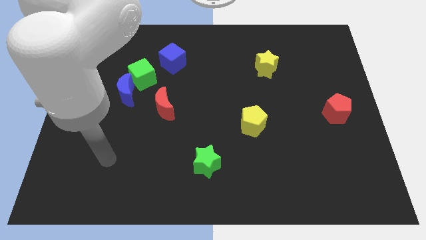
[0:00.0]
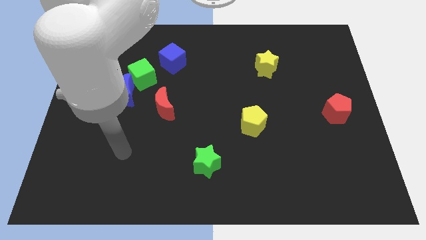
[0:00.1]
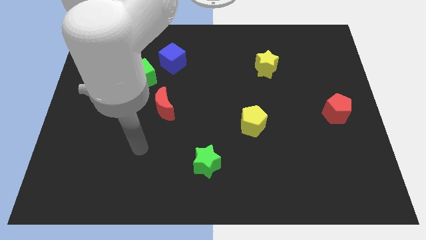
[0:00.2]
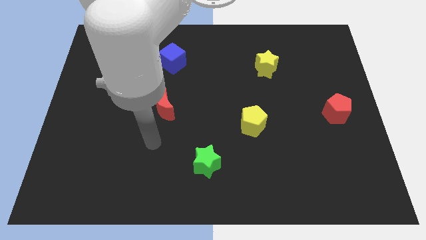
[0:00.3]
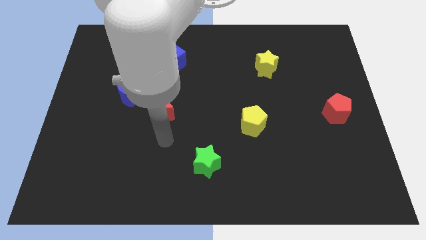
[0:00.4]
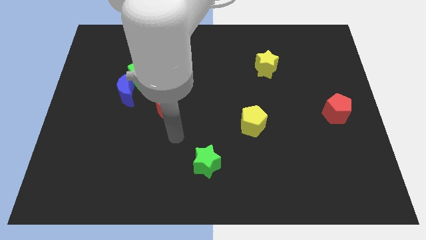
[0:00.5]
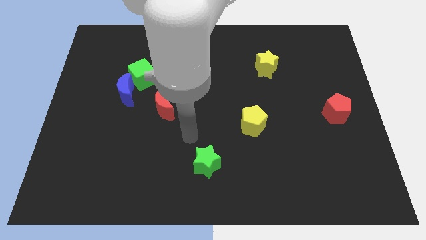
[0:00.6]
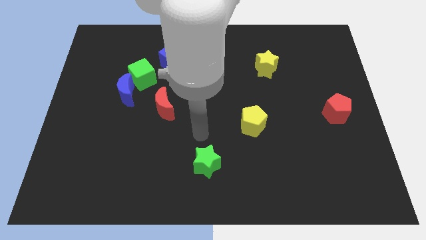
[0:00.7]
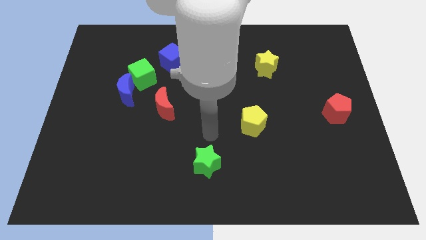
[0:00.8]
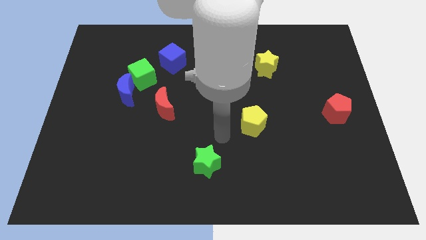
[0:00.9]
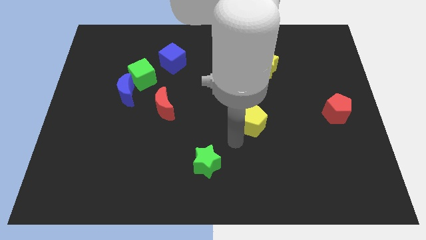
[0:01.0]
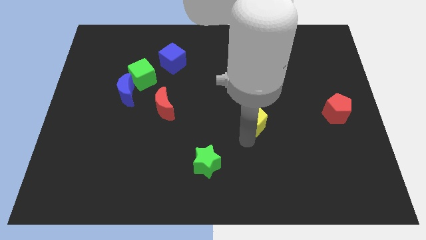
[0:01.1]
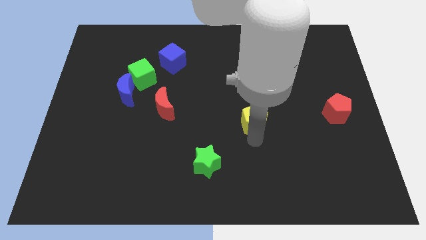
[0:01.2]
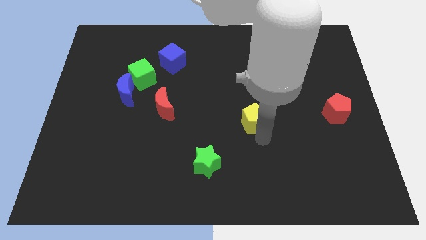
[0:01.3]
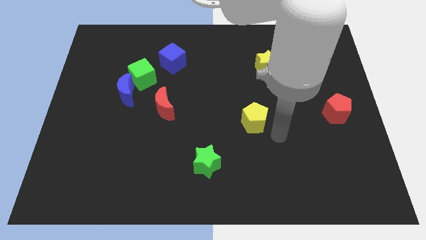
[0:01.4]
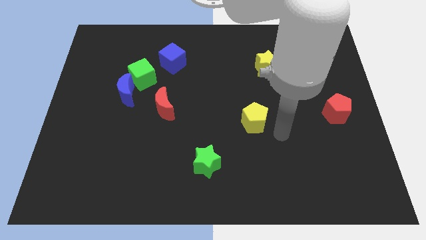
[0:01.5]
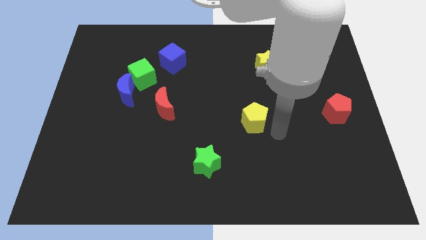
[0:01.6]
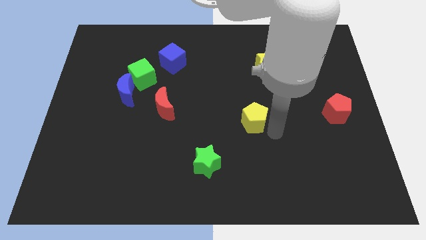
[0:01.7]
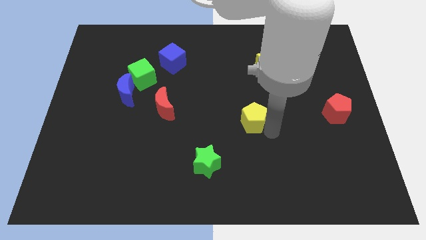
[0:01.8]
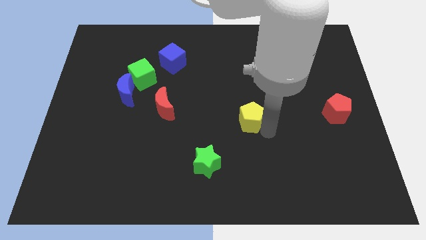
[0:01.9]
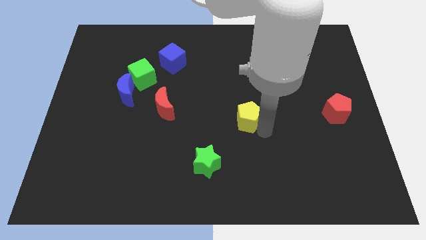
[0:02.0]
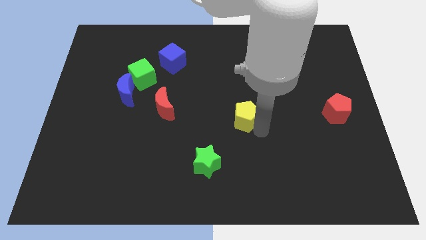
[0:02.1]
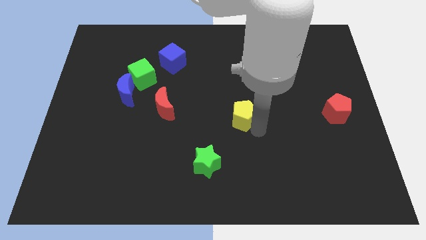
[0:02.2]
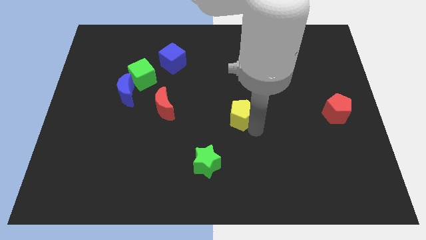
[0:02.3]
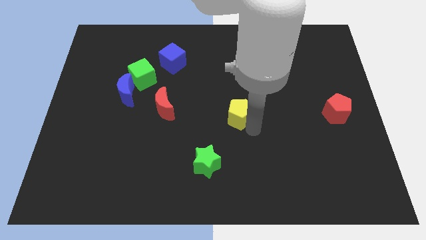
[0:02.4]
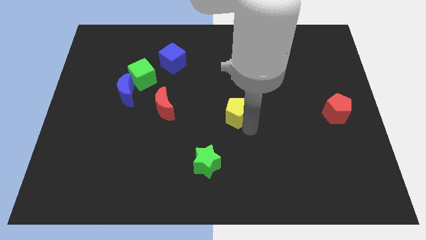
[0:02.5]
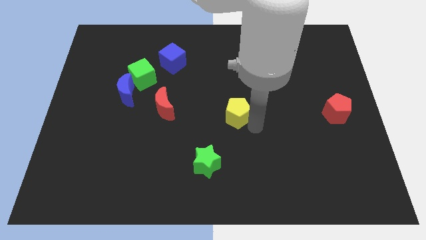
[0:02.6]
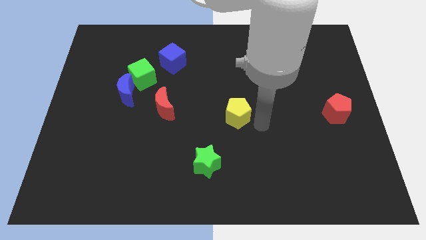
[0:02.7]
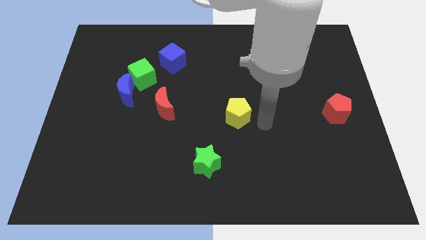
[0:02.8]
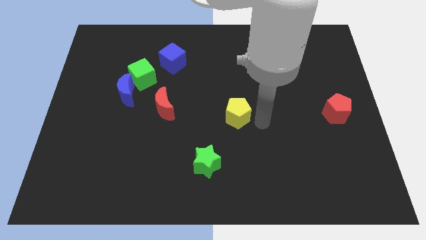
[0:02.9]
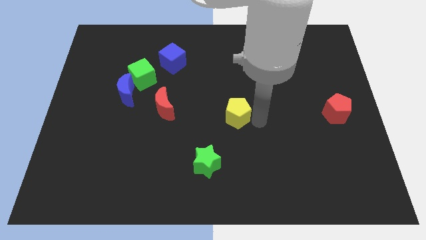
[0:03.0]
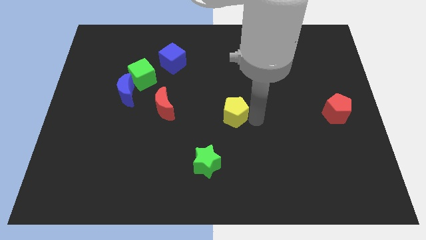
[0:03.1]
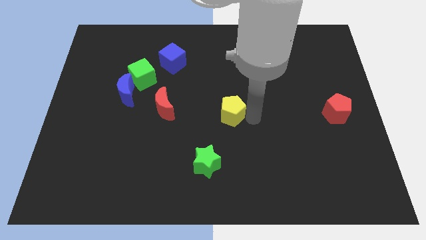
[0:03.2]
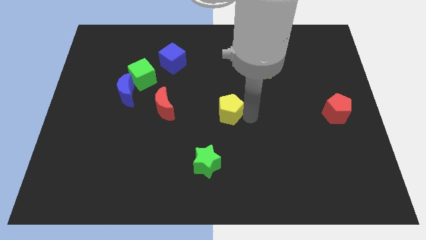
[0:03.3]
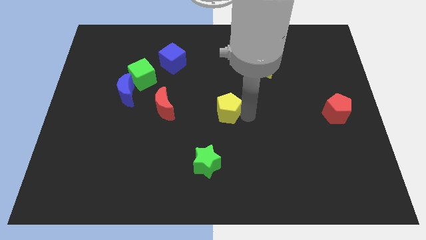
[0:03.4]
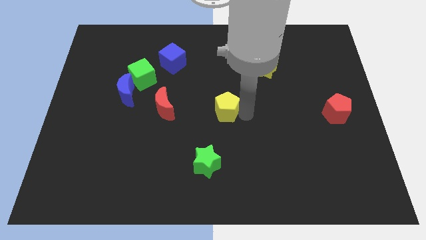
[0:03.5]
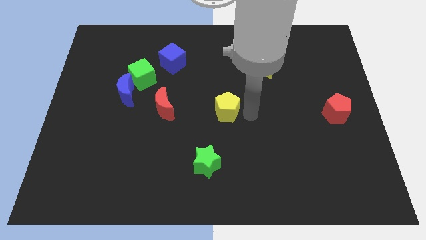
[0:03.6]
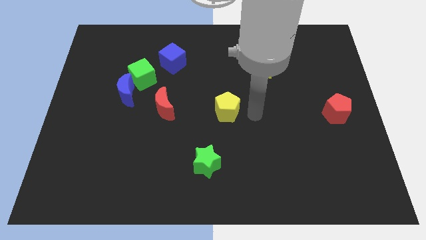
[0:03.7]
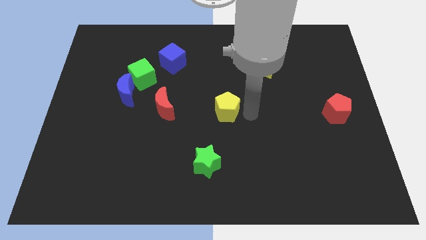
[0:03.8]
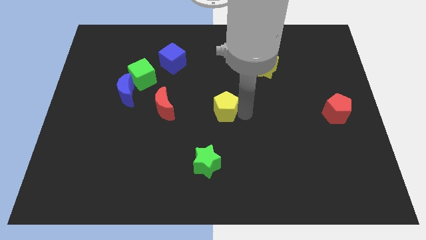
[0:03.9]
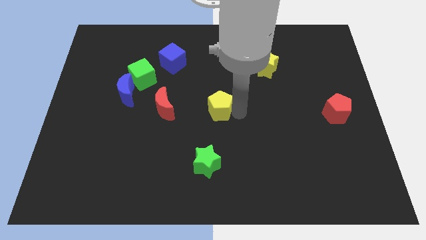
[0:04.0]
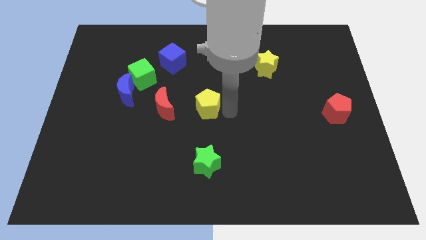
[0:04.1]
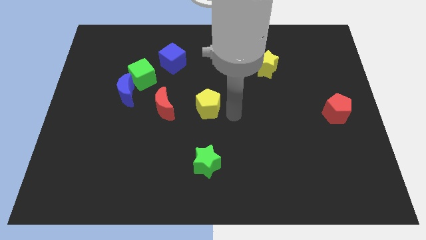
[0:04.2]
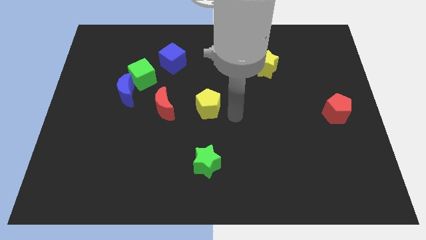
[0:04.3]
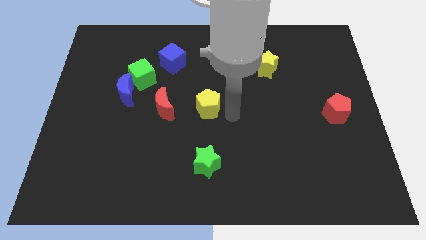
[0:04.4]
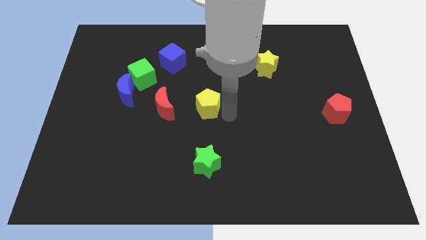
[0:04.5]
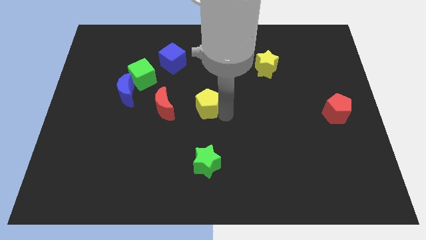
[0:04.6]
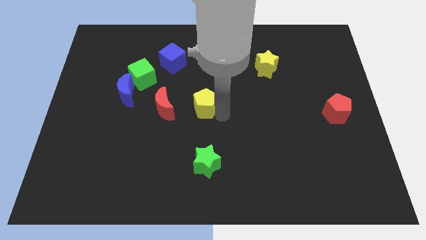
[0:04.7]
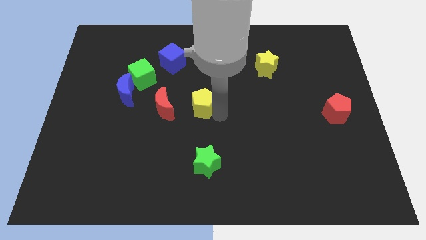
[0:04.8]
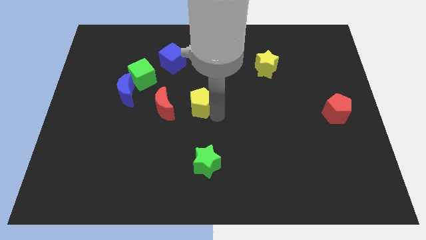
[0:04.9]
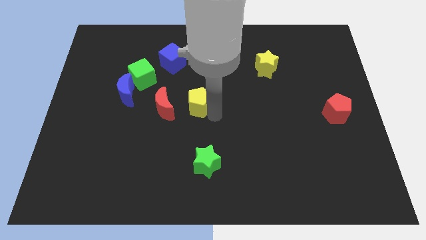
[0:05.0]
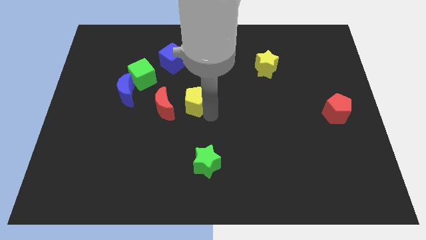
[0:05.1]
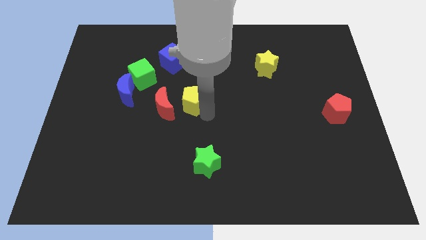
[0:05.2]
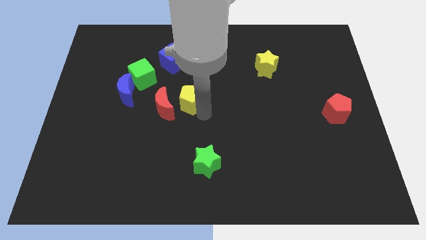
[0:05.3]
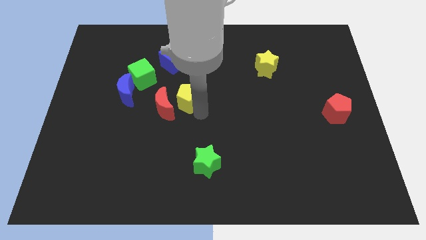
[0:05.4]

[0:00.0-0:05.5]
put the yellow pentagon just right of the blue moon

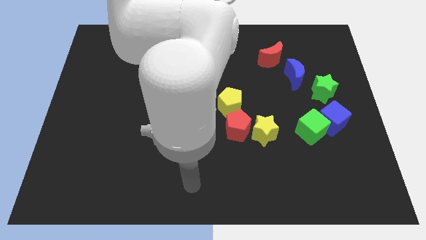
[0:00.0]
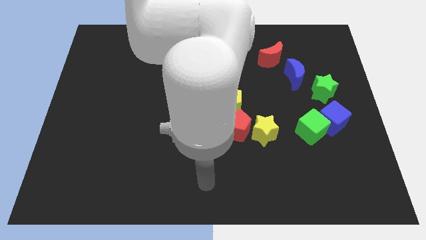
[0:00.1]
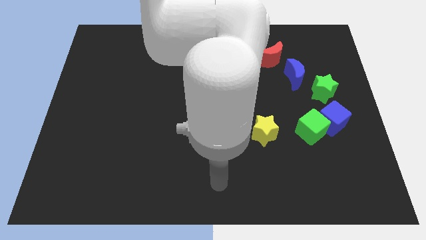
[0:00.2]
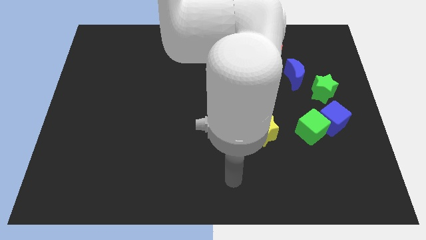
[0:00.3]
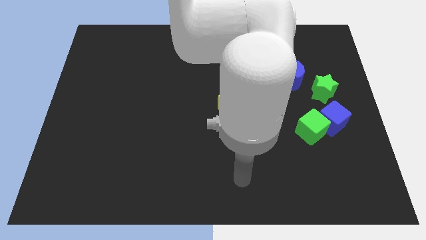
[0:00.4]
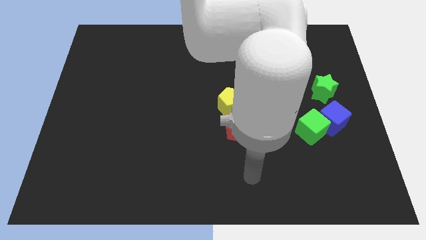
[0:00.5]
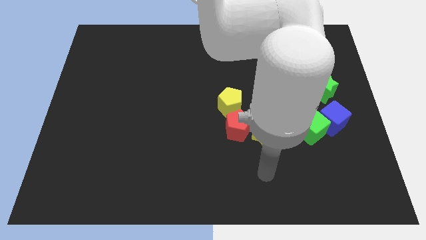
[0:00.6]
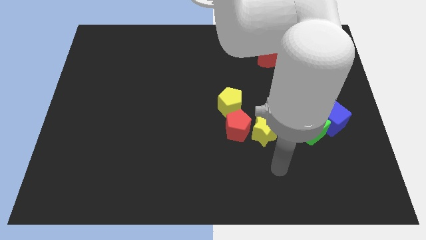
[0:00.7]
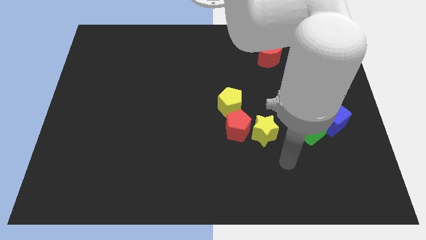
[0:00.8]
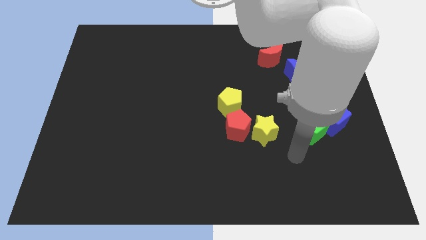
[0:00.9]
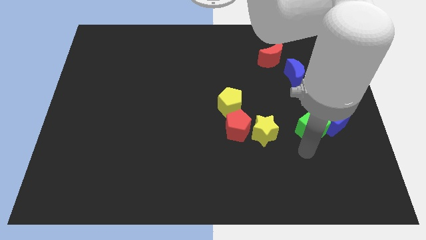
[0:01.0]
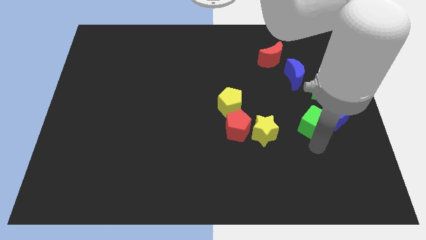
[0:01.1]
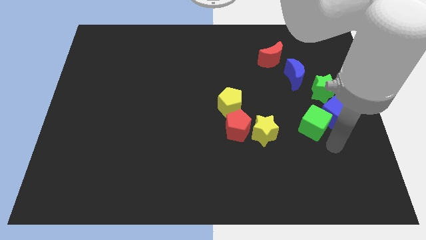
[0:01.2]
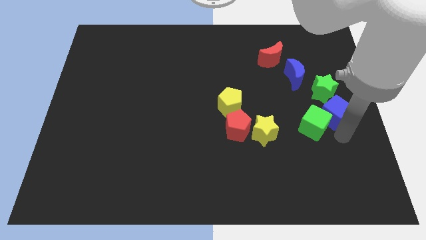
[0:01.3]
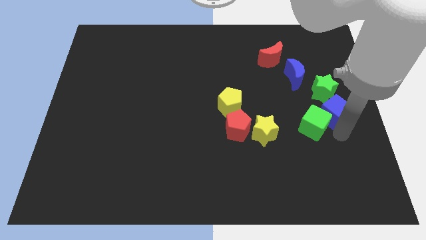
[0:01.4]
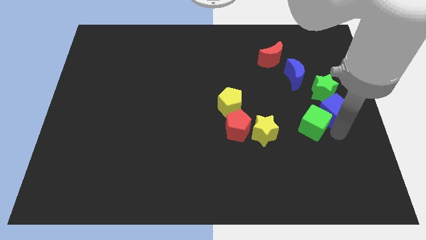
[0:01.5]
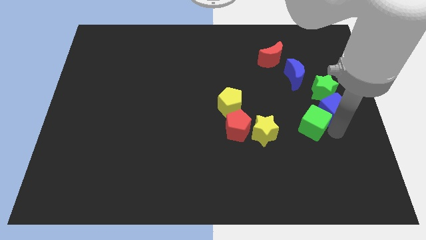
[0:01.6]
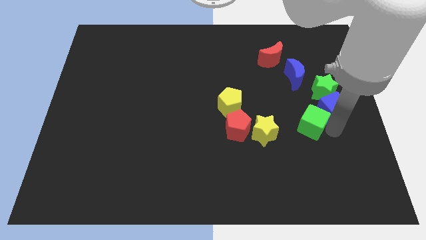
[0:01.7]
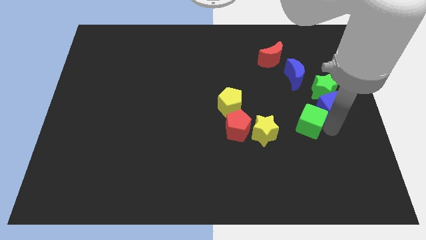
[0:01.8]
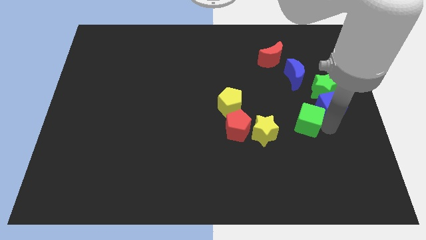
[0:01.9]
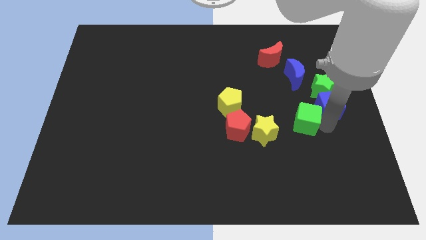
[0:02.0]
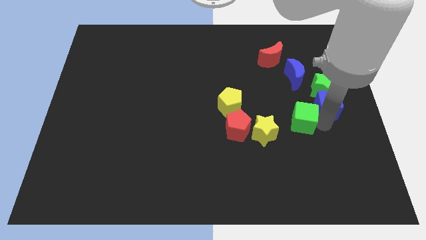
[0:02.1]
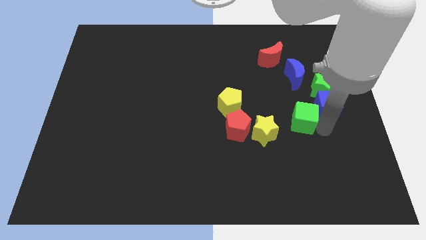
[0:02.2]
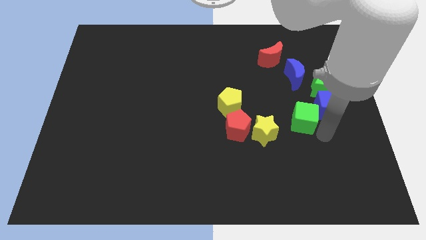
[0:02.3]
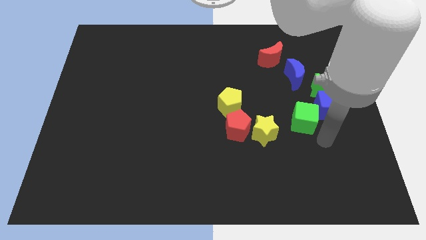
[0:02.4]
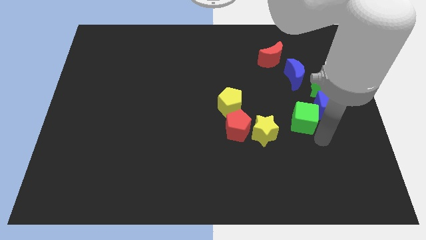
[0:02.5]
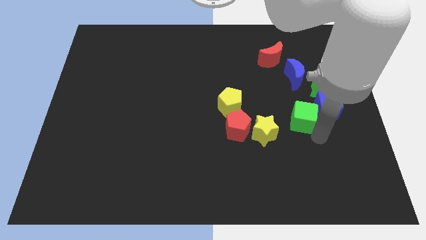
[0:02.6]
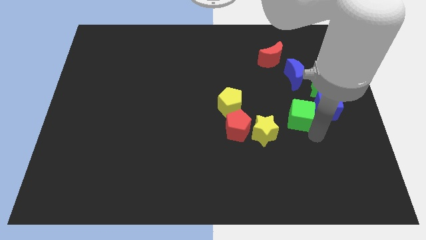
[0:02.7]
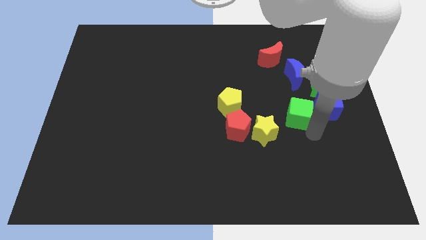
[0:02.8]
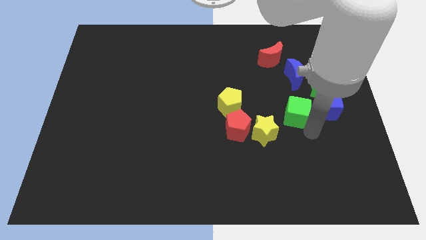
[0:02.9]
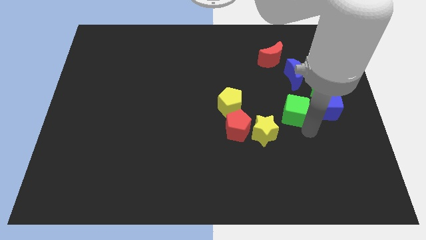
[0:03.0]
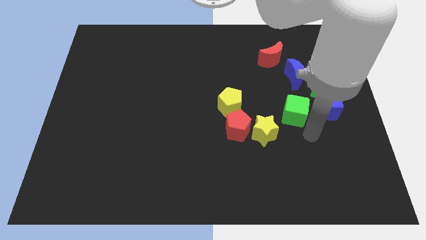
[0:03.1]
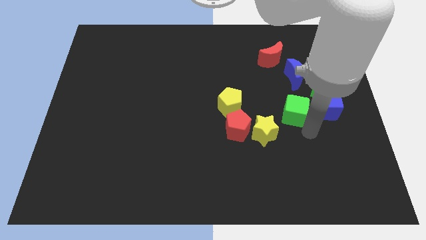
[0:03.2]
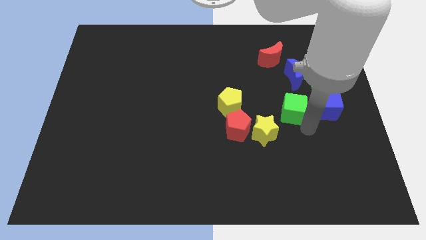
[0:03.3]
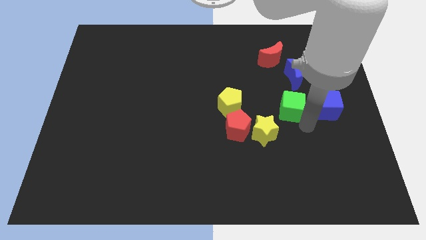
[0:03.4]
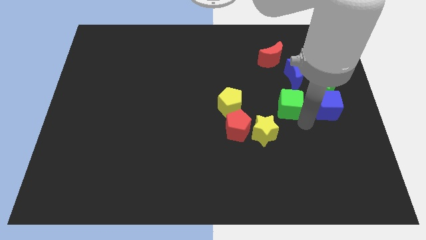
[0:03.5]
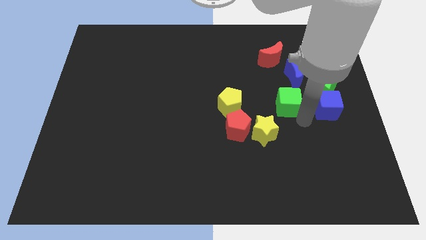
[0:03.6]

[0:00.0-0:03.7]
slide the green cube below the red moon
